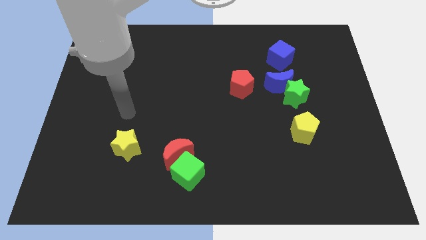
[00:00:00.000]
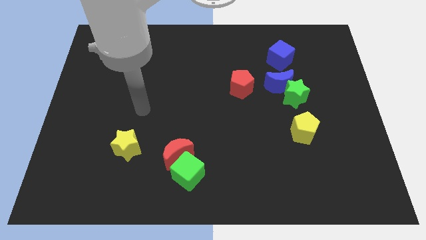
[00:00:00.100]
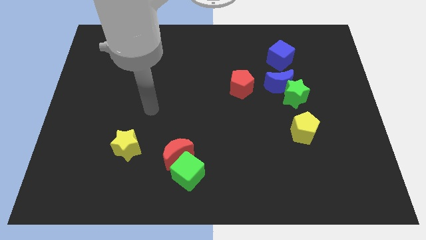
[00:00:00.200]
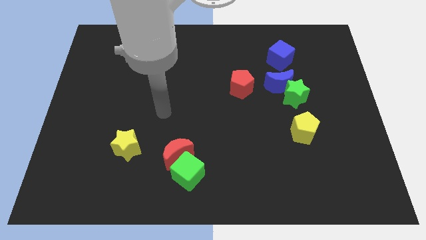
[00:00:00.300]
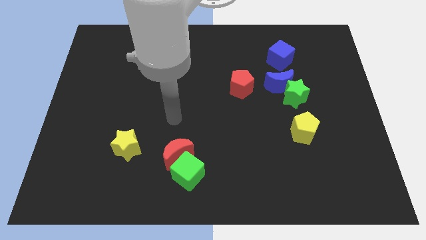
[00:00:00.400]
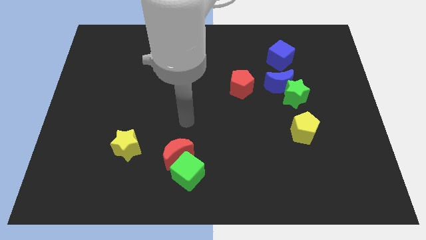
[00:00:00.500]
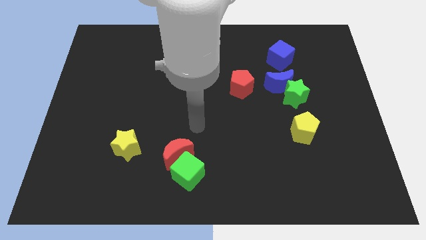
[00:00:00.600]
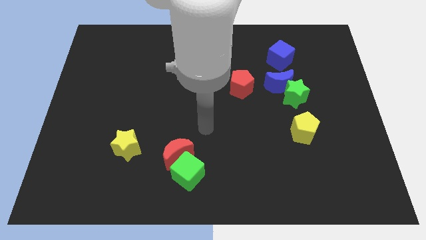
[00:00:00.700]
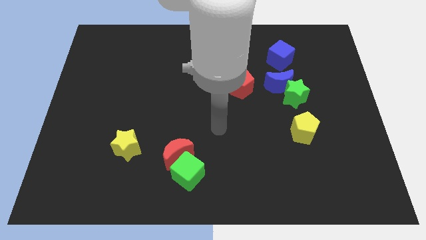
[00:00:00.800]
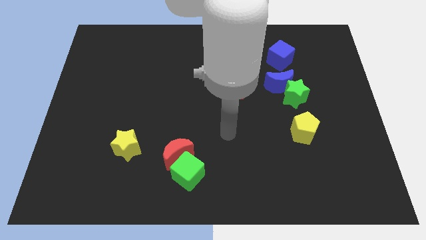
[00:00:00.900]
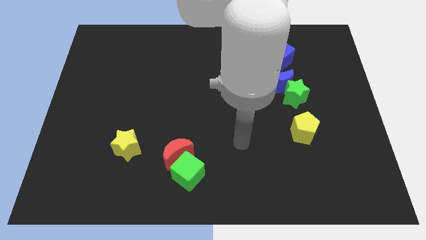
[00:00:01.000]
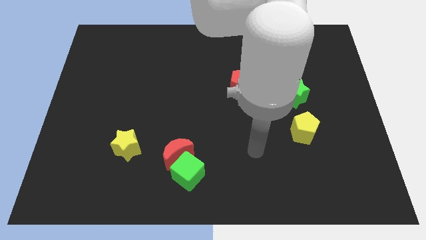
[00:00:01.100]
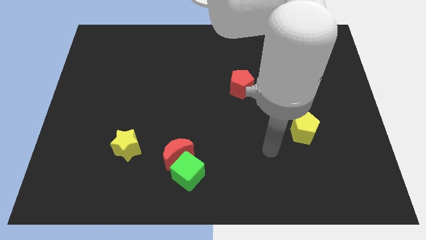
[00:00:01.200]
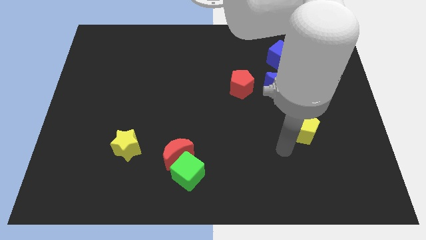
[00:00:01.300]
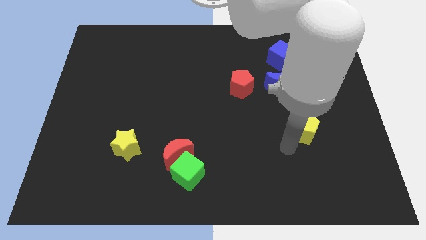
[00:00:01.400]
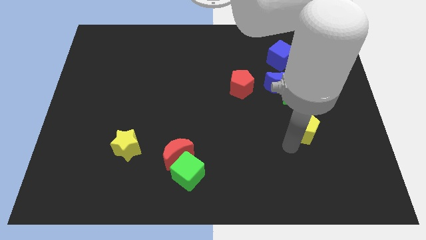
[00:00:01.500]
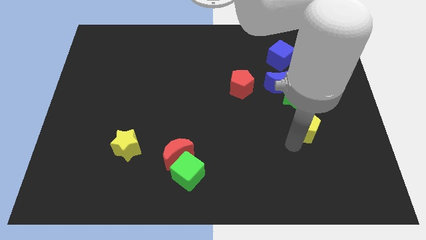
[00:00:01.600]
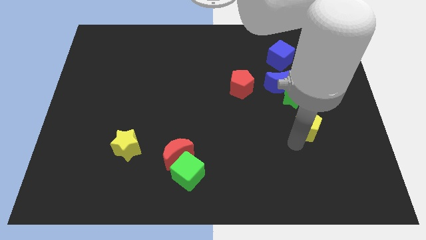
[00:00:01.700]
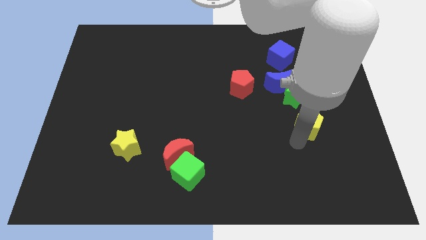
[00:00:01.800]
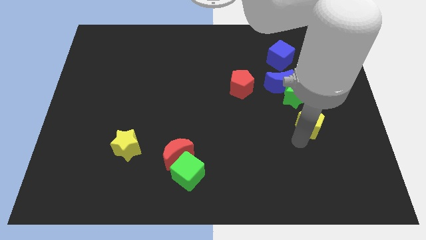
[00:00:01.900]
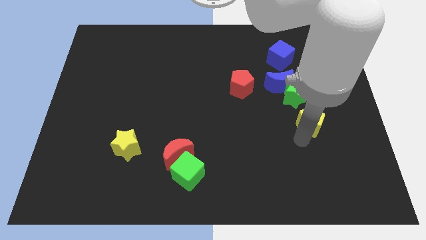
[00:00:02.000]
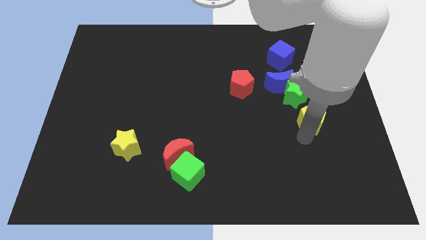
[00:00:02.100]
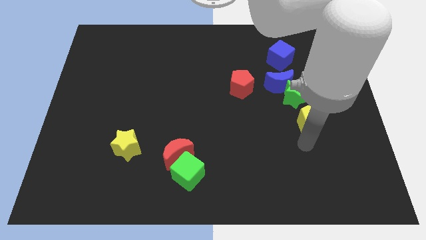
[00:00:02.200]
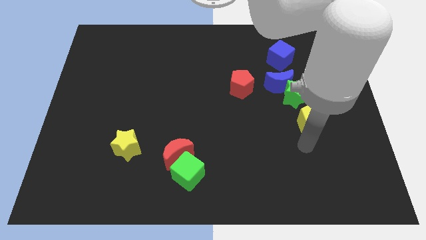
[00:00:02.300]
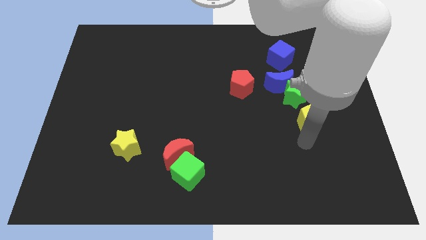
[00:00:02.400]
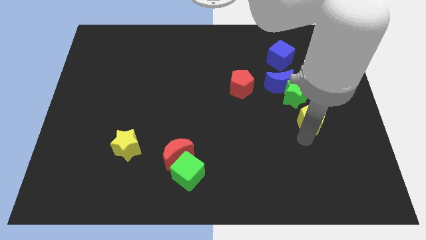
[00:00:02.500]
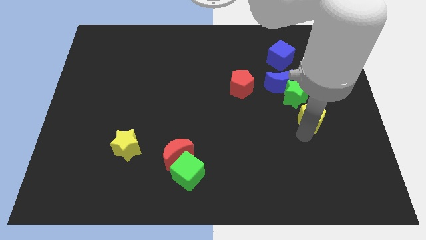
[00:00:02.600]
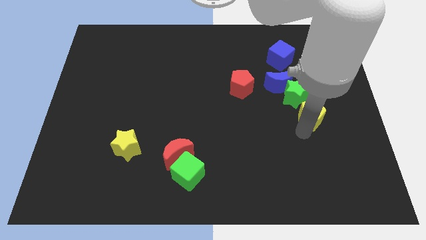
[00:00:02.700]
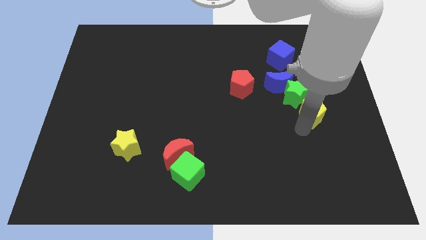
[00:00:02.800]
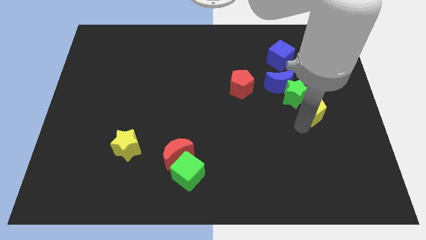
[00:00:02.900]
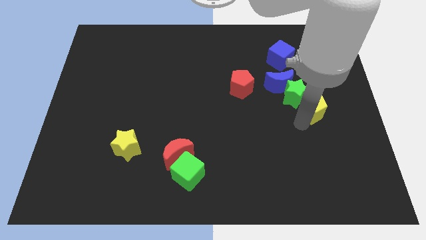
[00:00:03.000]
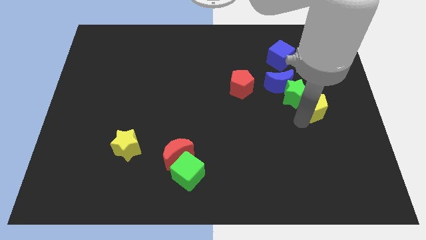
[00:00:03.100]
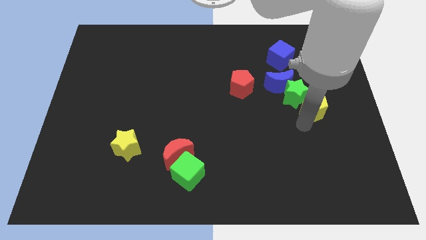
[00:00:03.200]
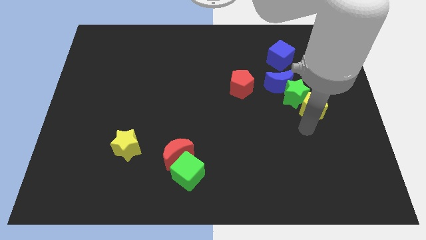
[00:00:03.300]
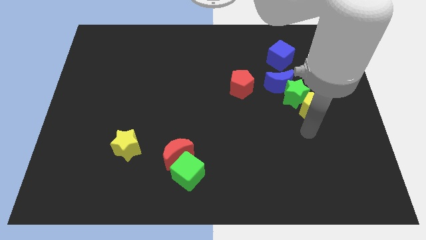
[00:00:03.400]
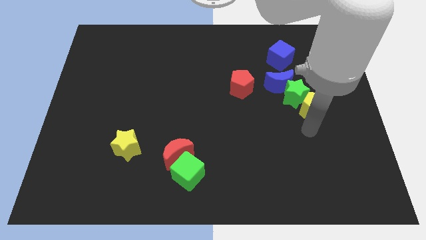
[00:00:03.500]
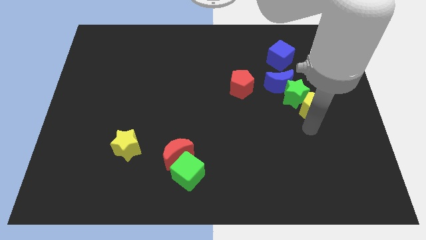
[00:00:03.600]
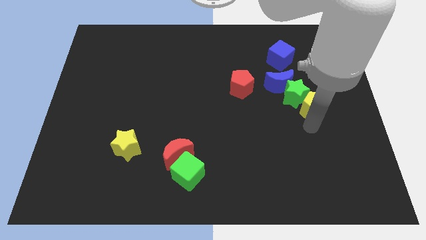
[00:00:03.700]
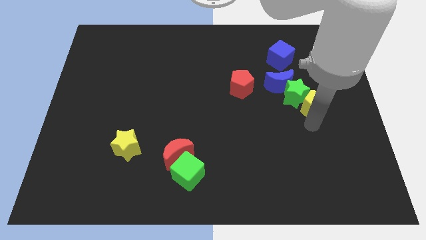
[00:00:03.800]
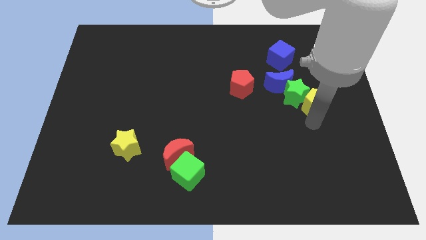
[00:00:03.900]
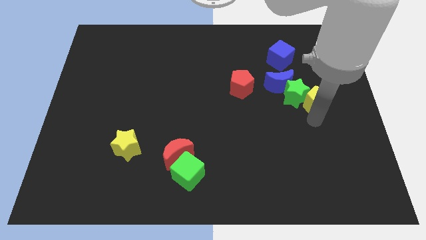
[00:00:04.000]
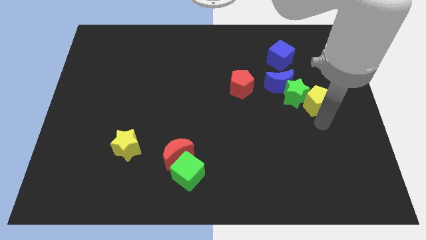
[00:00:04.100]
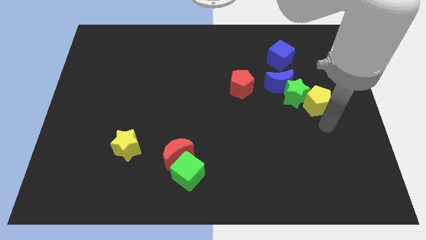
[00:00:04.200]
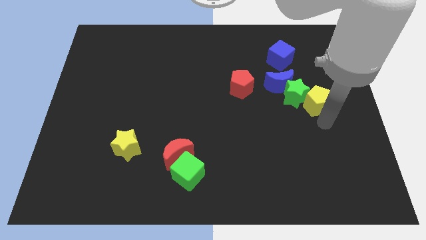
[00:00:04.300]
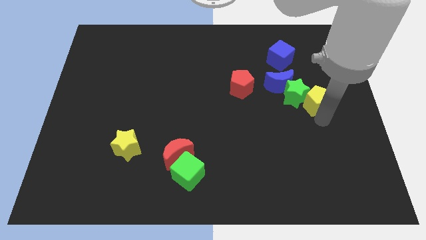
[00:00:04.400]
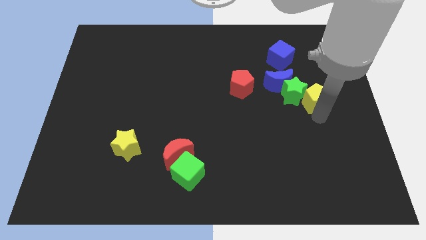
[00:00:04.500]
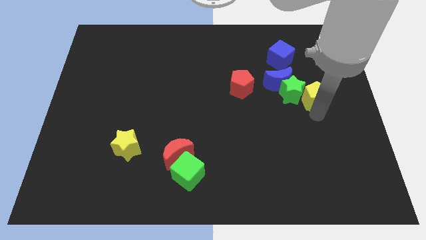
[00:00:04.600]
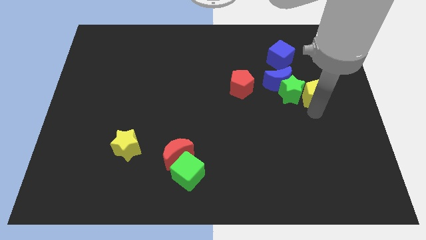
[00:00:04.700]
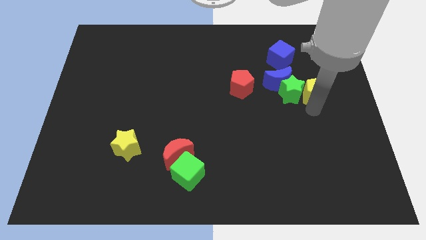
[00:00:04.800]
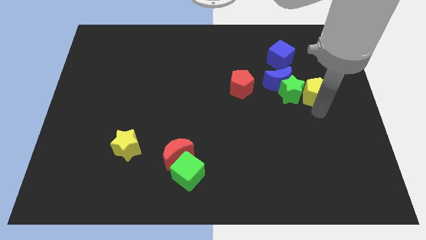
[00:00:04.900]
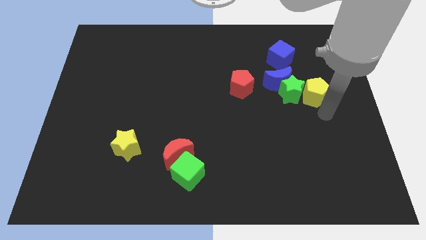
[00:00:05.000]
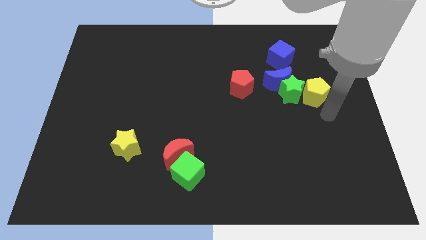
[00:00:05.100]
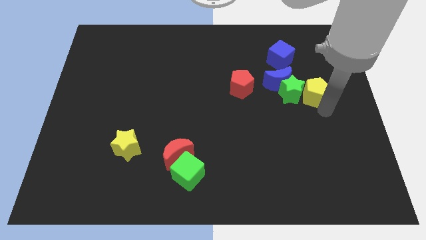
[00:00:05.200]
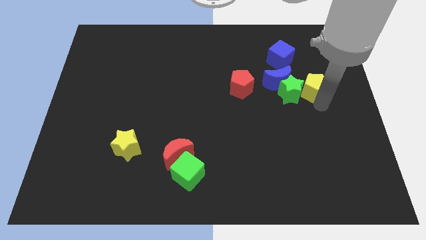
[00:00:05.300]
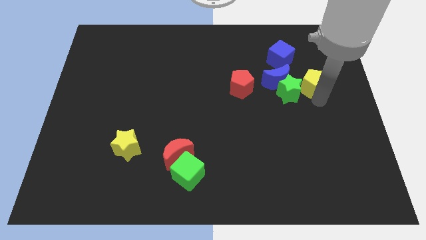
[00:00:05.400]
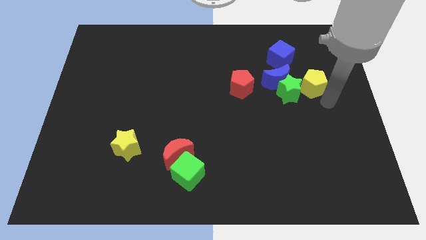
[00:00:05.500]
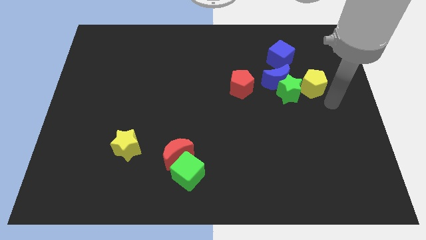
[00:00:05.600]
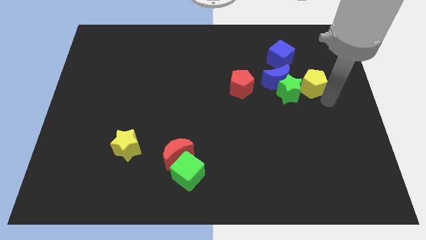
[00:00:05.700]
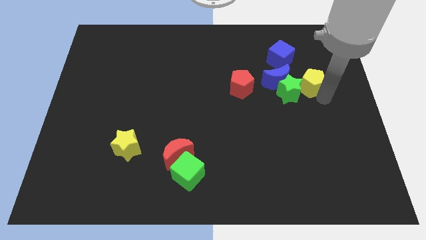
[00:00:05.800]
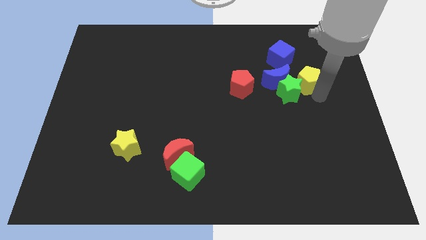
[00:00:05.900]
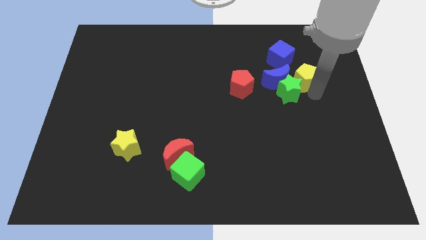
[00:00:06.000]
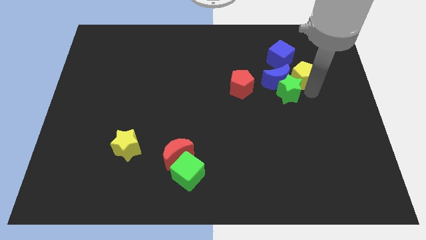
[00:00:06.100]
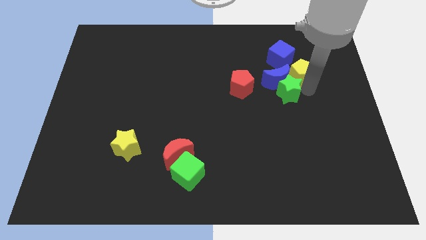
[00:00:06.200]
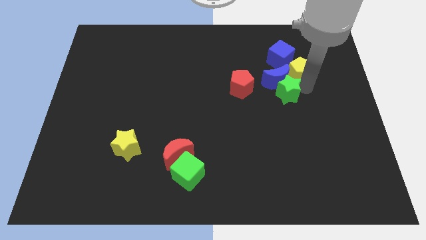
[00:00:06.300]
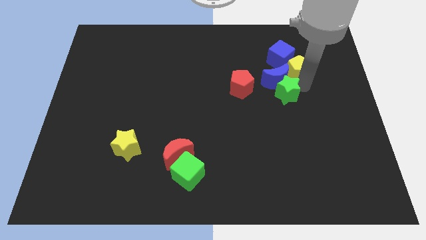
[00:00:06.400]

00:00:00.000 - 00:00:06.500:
move the yellow pentagon next to the blue cube

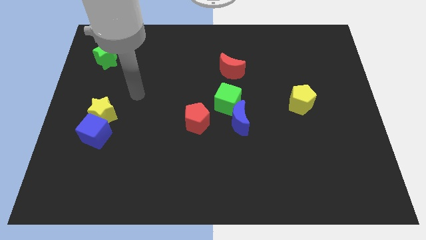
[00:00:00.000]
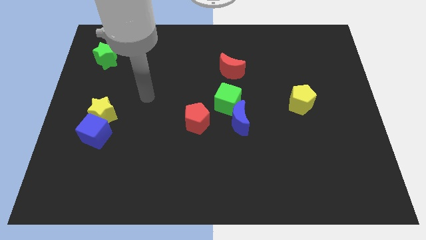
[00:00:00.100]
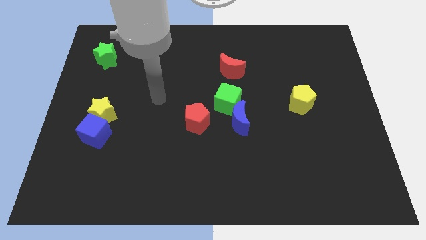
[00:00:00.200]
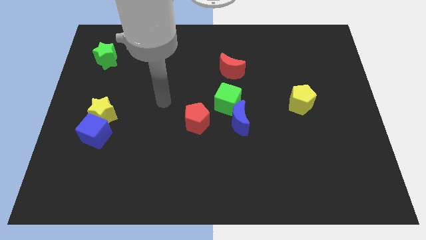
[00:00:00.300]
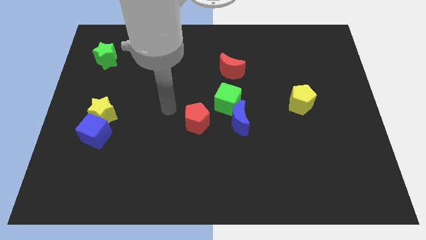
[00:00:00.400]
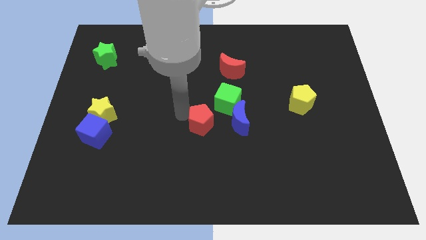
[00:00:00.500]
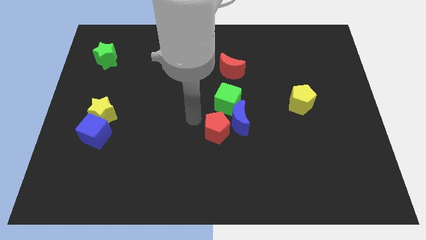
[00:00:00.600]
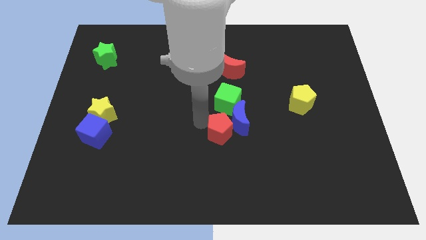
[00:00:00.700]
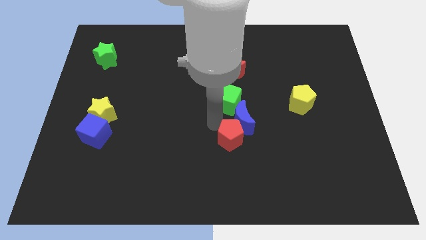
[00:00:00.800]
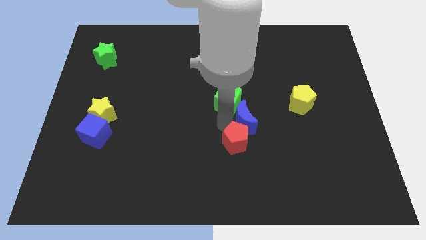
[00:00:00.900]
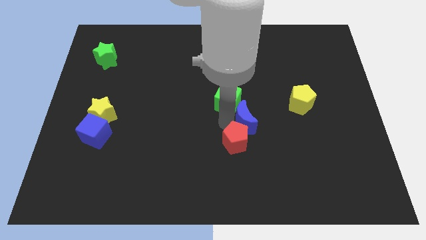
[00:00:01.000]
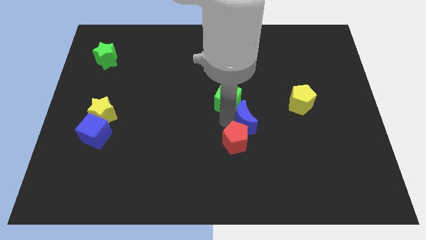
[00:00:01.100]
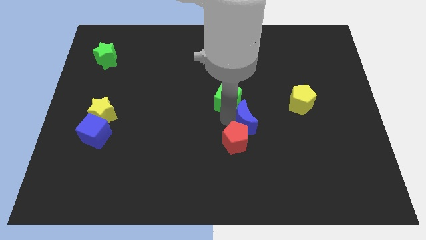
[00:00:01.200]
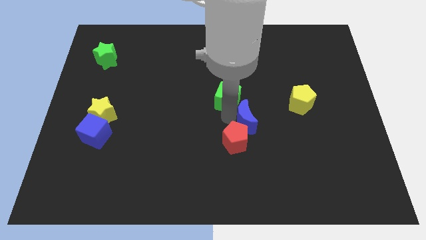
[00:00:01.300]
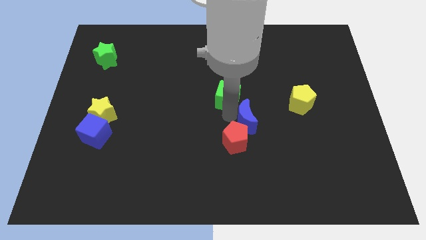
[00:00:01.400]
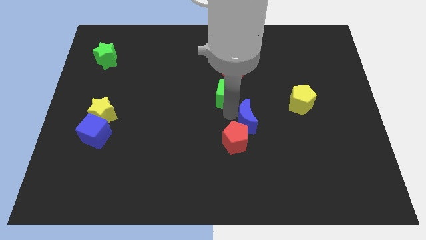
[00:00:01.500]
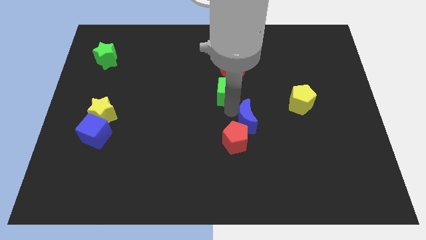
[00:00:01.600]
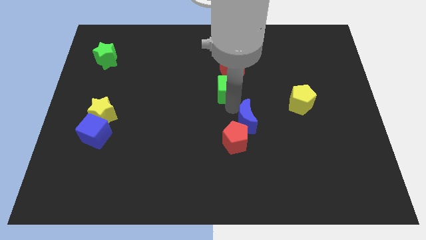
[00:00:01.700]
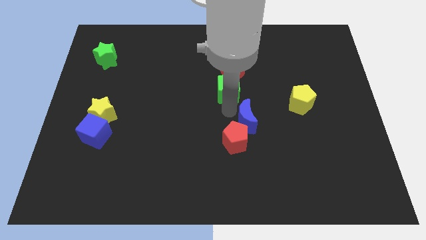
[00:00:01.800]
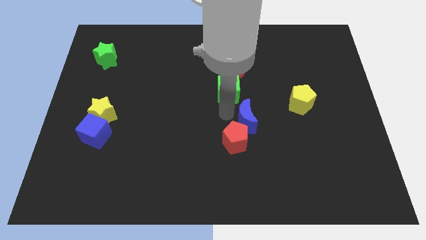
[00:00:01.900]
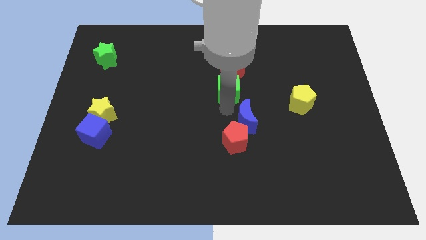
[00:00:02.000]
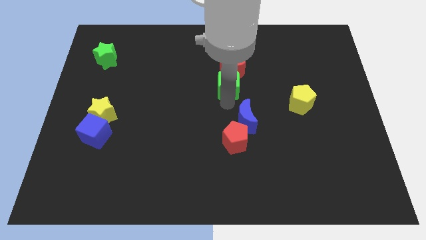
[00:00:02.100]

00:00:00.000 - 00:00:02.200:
put the green cube close to the red moon
